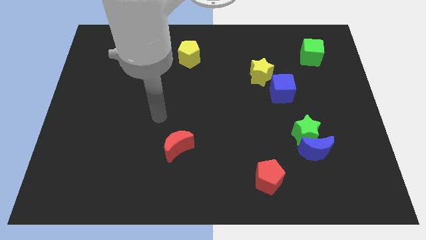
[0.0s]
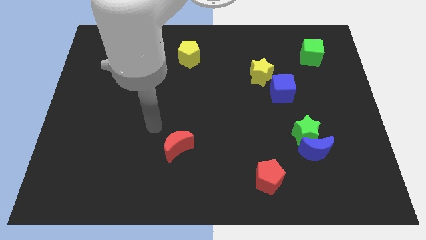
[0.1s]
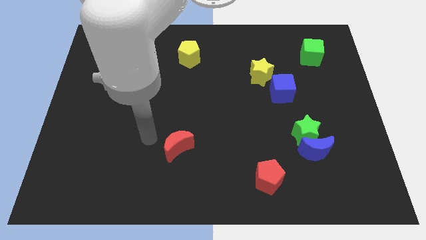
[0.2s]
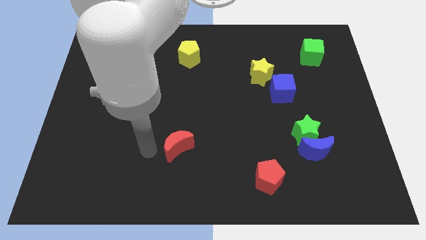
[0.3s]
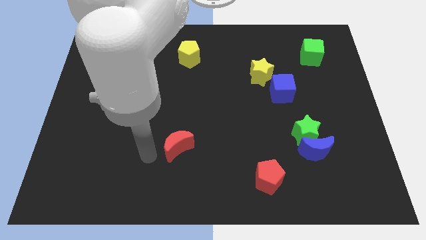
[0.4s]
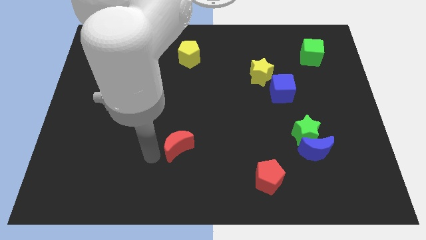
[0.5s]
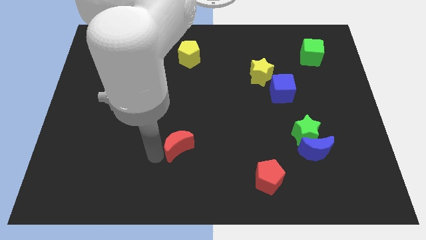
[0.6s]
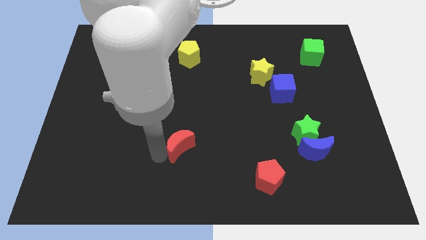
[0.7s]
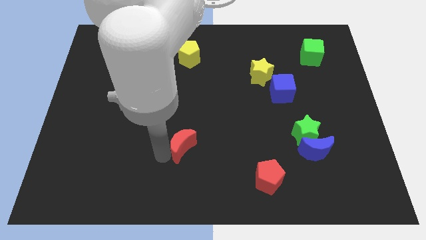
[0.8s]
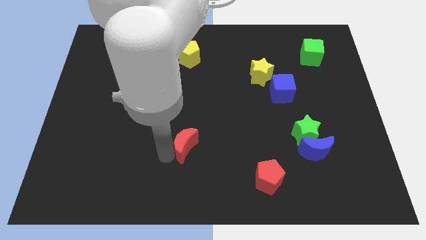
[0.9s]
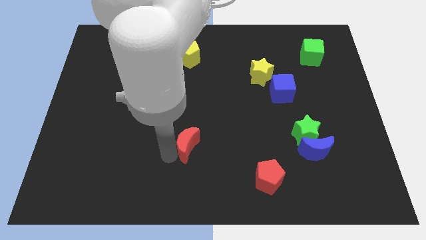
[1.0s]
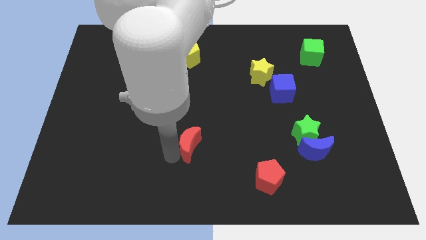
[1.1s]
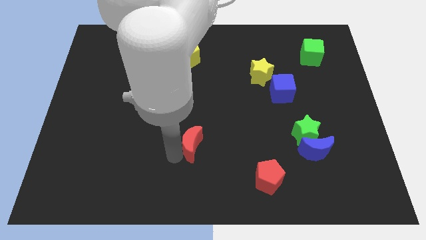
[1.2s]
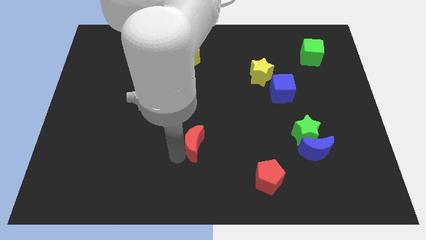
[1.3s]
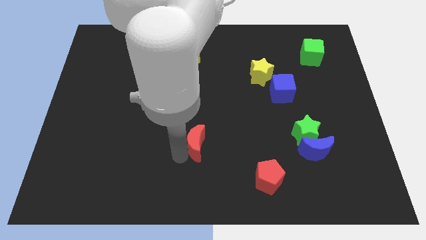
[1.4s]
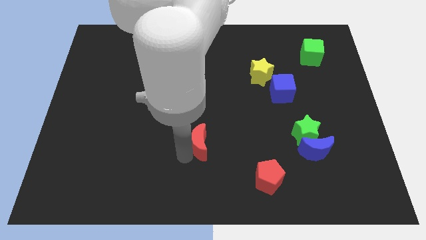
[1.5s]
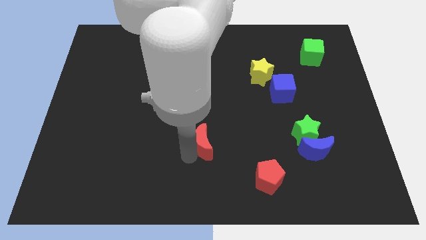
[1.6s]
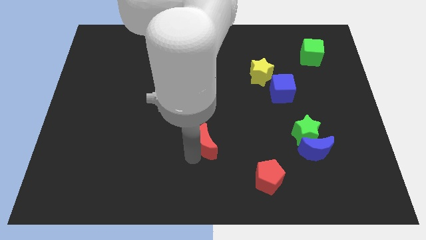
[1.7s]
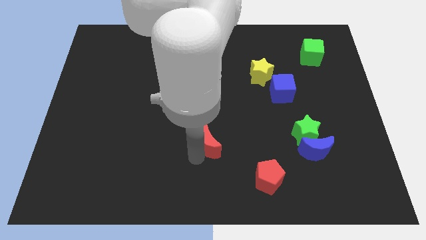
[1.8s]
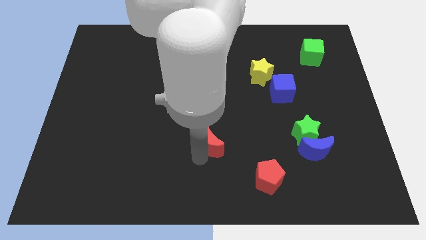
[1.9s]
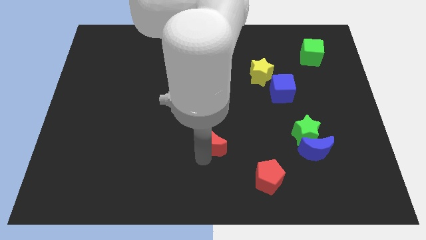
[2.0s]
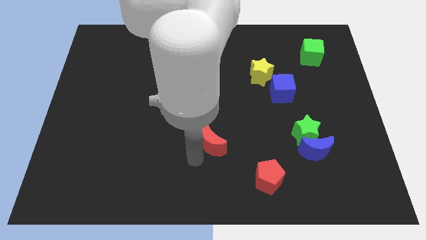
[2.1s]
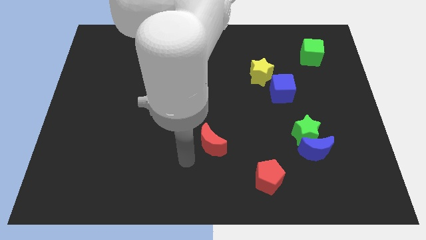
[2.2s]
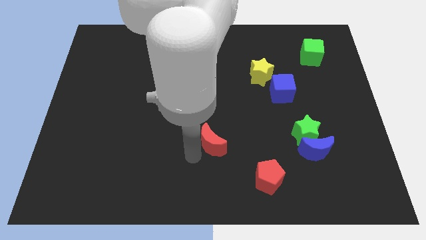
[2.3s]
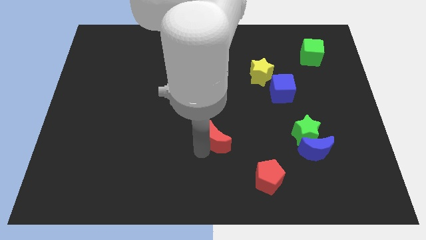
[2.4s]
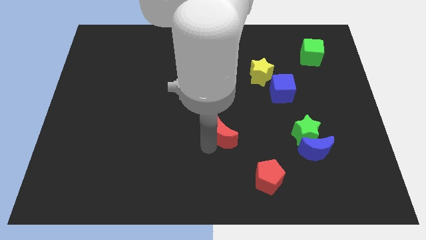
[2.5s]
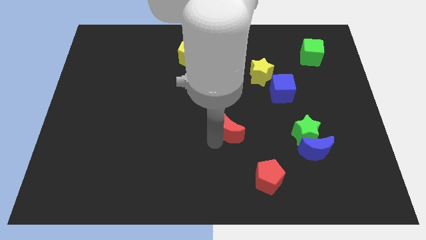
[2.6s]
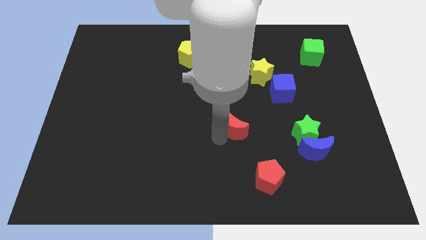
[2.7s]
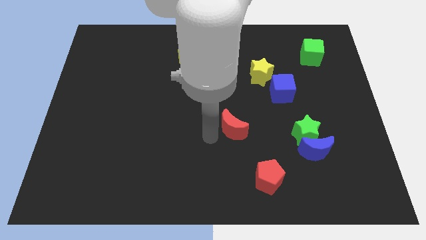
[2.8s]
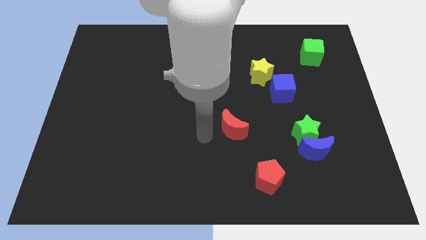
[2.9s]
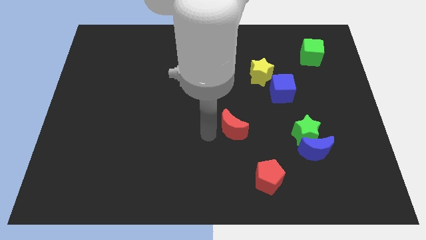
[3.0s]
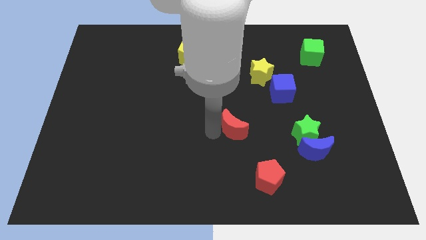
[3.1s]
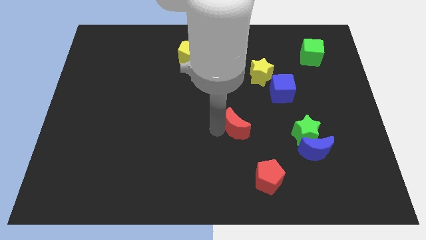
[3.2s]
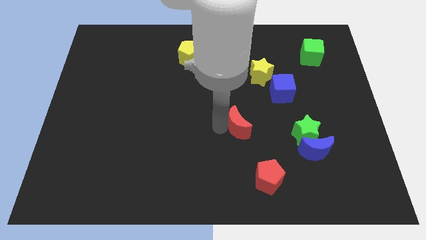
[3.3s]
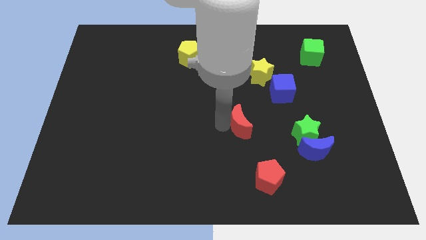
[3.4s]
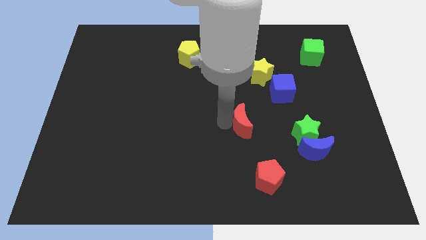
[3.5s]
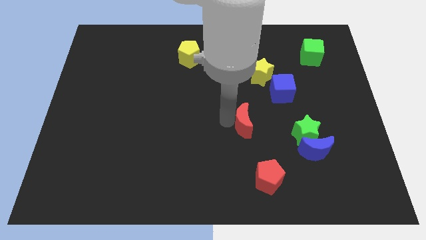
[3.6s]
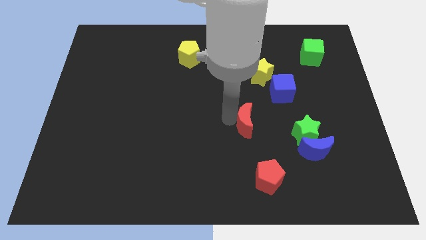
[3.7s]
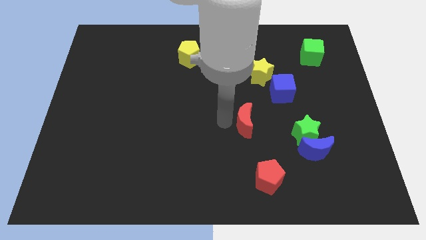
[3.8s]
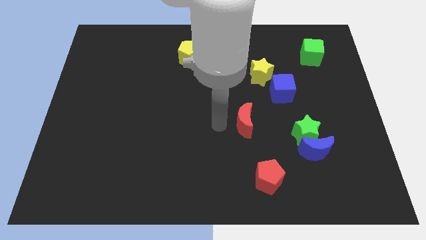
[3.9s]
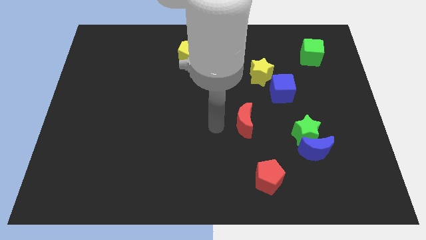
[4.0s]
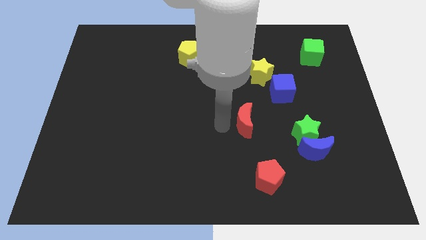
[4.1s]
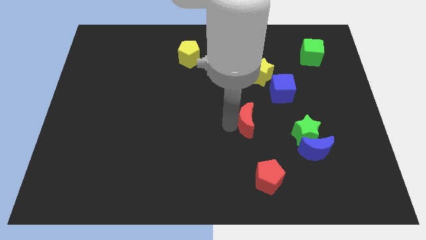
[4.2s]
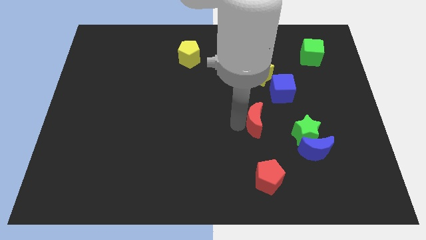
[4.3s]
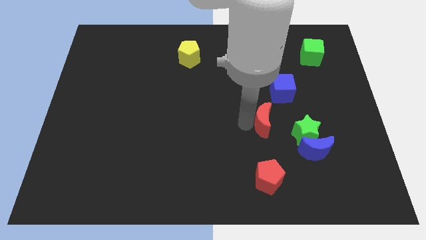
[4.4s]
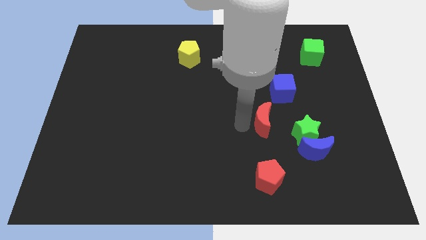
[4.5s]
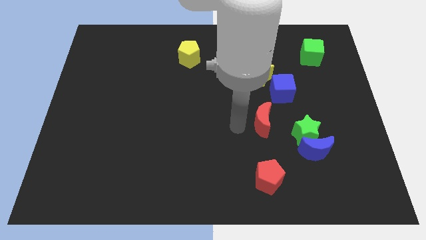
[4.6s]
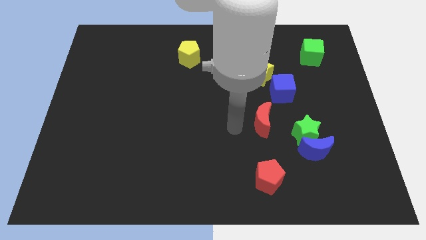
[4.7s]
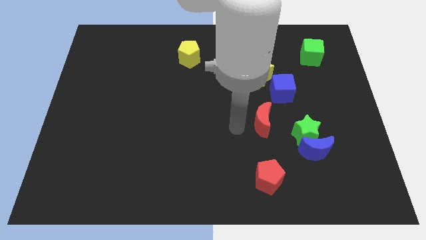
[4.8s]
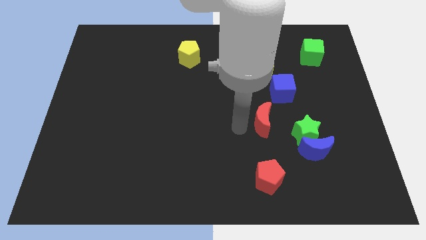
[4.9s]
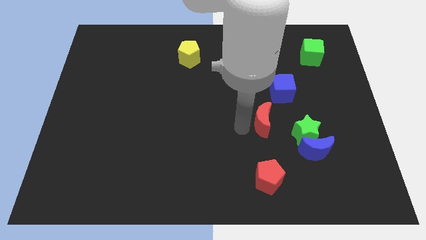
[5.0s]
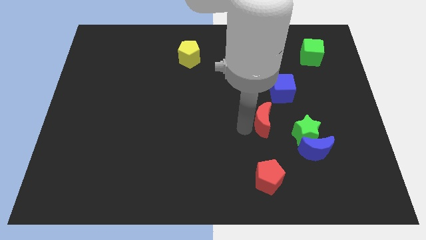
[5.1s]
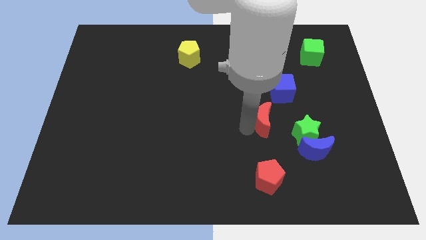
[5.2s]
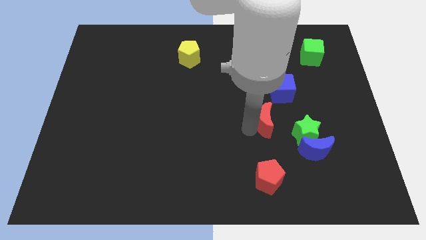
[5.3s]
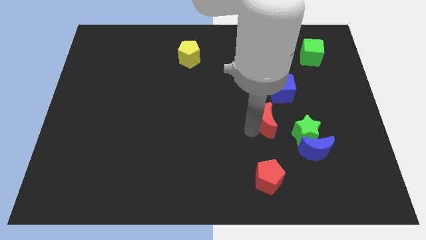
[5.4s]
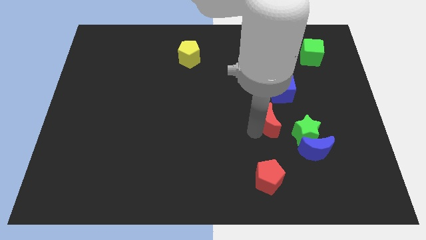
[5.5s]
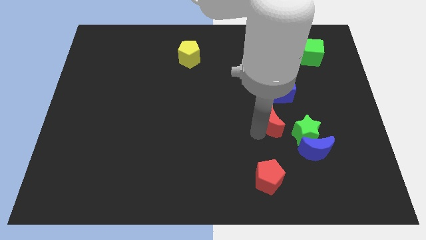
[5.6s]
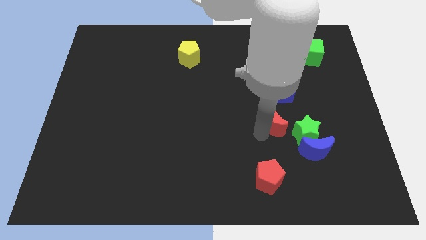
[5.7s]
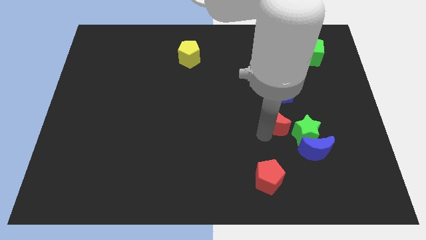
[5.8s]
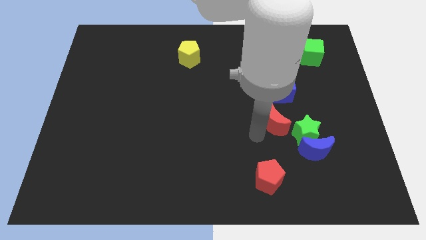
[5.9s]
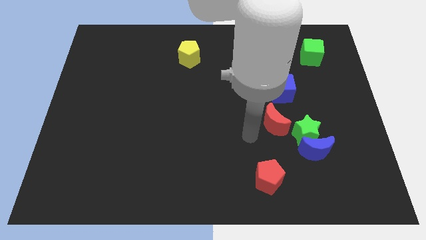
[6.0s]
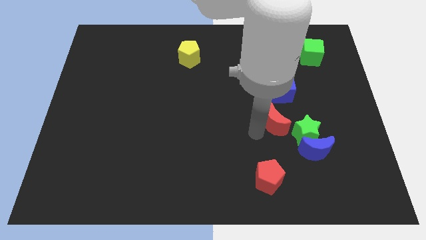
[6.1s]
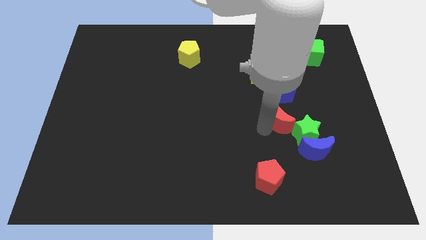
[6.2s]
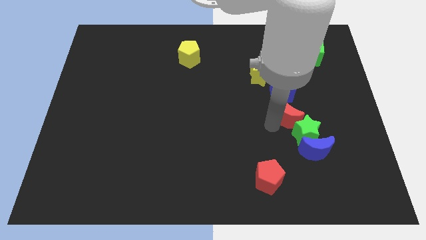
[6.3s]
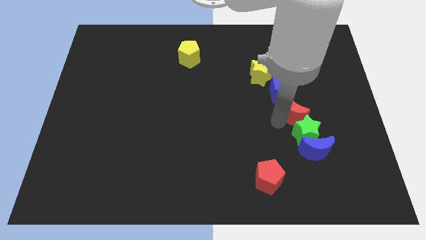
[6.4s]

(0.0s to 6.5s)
put the red moon to the bottom right of the blue cube

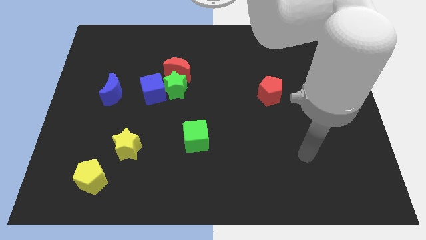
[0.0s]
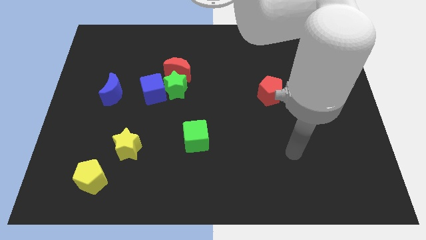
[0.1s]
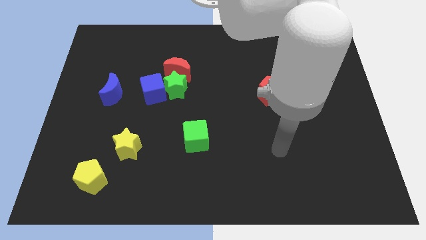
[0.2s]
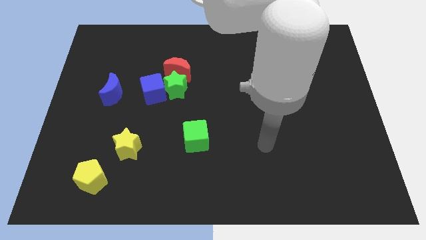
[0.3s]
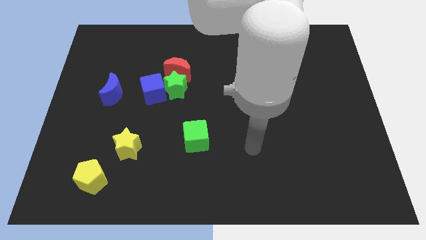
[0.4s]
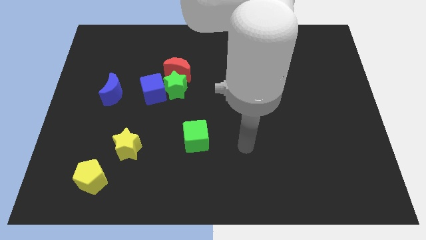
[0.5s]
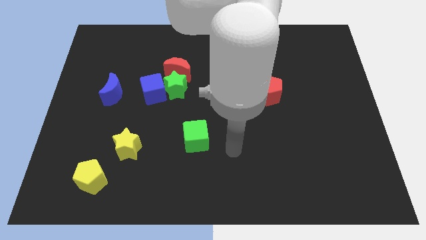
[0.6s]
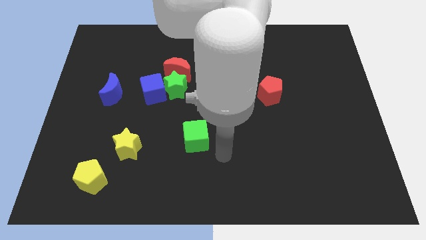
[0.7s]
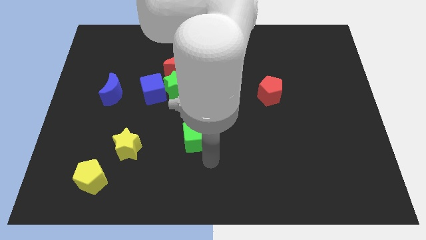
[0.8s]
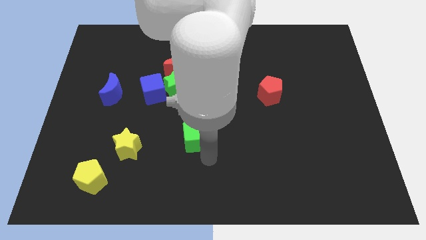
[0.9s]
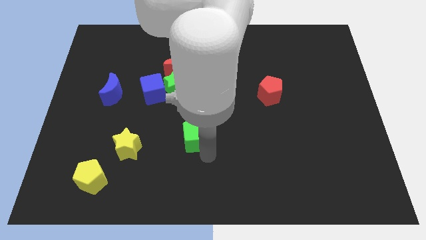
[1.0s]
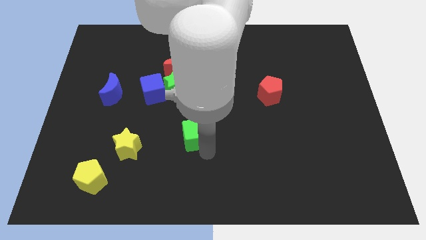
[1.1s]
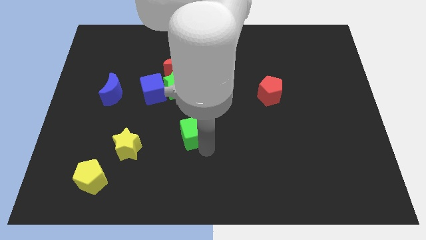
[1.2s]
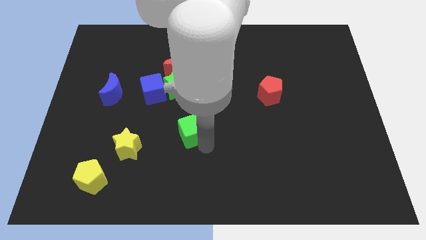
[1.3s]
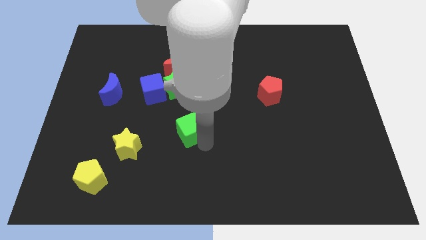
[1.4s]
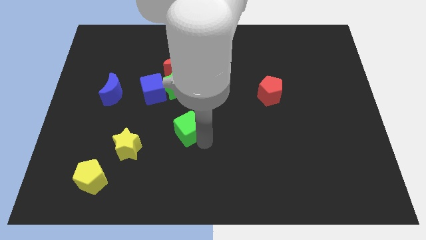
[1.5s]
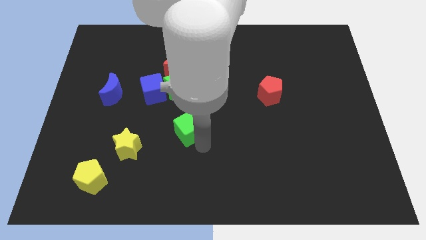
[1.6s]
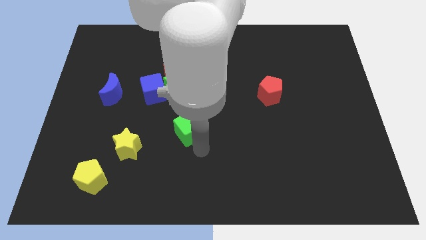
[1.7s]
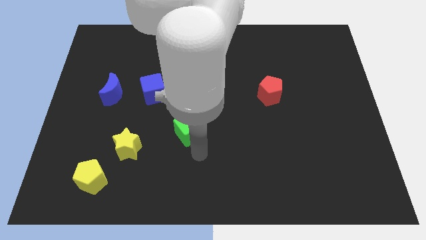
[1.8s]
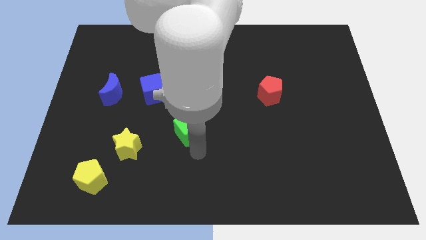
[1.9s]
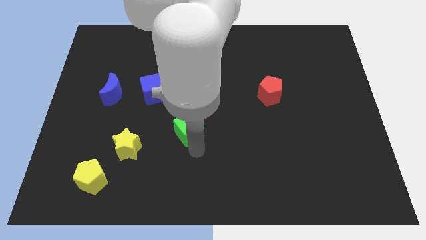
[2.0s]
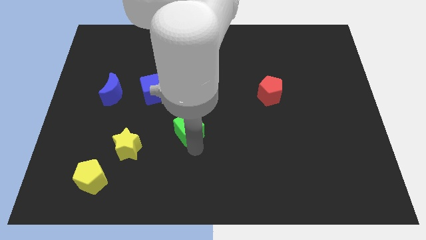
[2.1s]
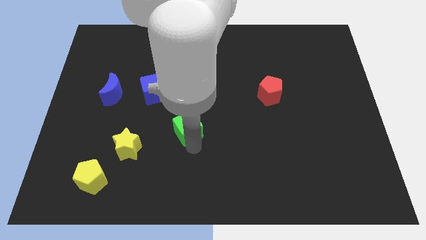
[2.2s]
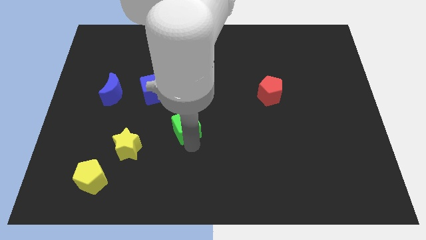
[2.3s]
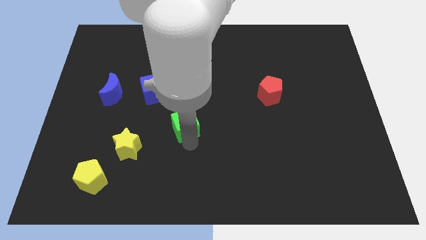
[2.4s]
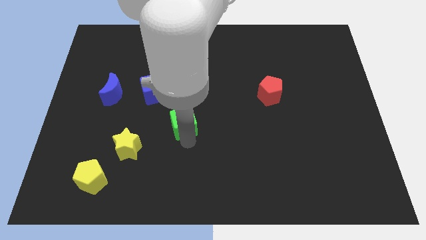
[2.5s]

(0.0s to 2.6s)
put the green cube diagonally down and to the right of the blue cube
